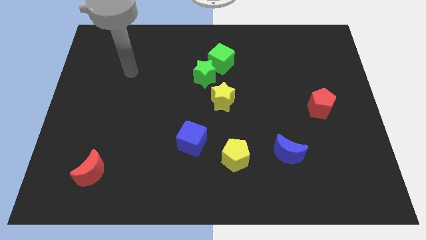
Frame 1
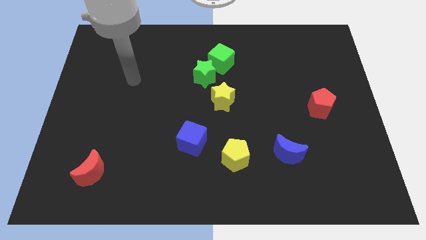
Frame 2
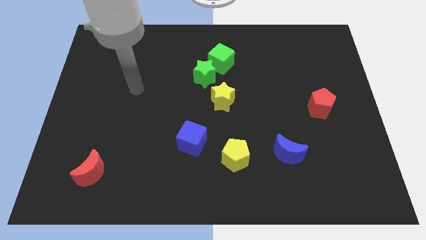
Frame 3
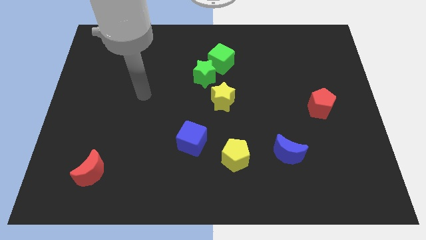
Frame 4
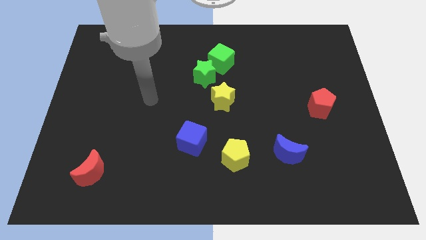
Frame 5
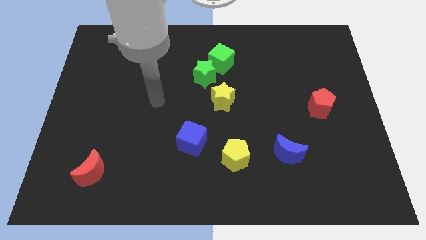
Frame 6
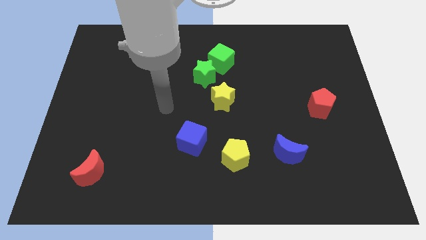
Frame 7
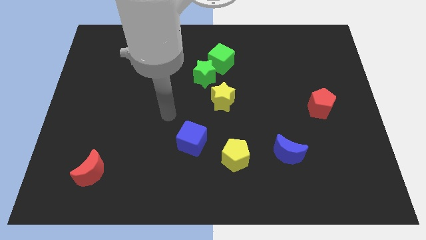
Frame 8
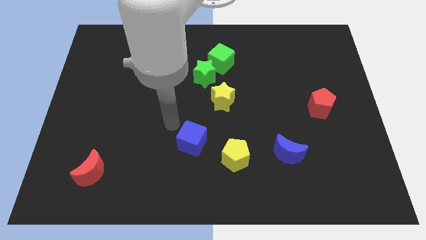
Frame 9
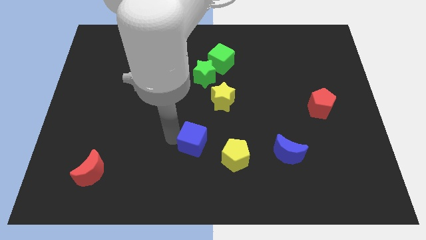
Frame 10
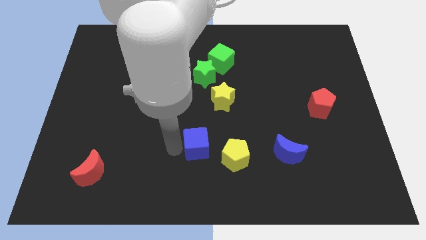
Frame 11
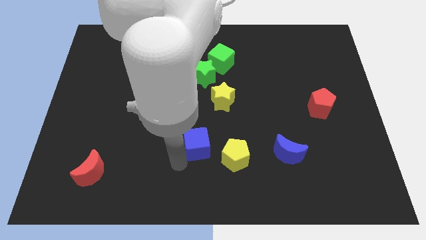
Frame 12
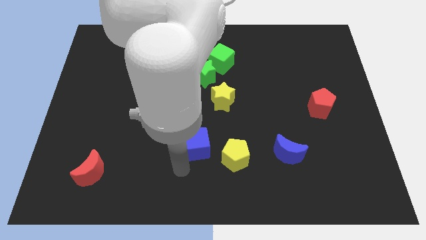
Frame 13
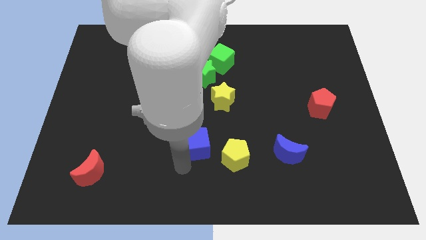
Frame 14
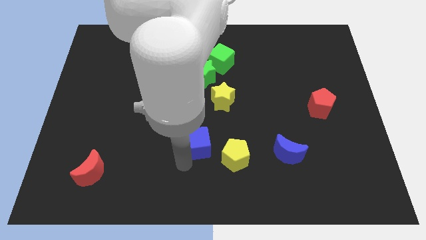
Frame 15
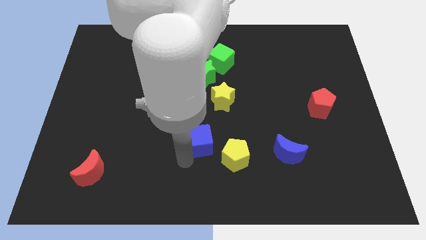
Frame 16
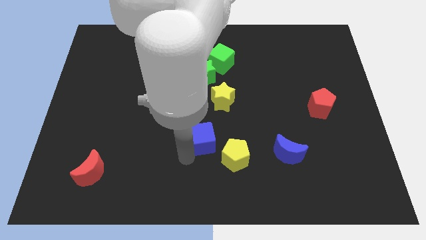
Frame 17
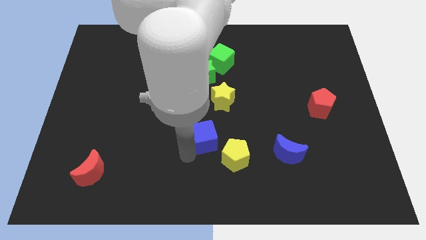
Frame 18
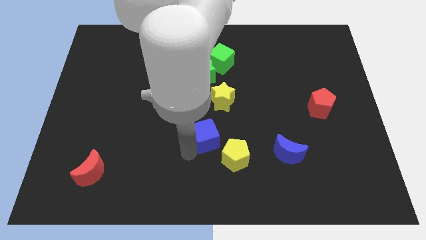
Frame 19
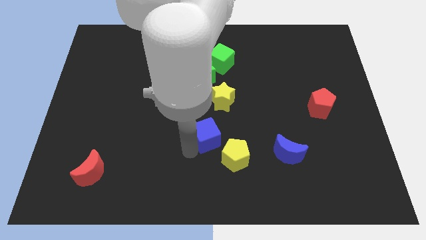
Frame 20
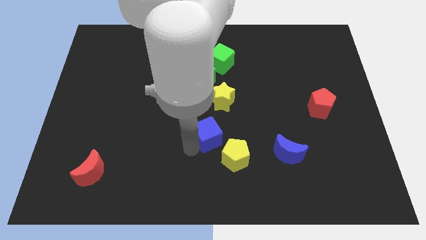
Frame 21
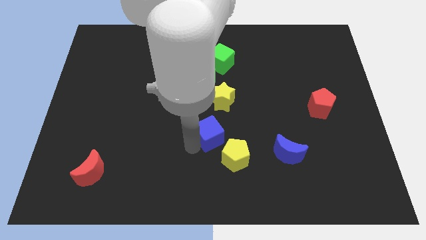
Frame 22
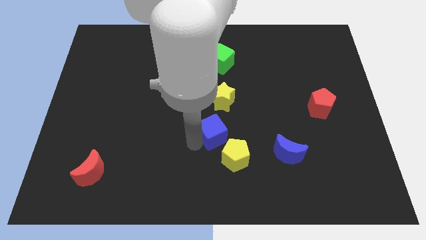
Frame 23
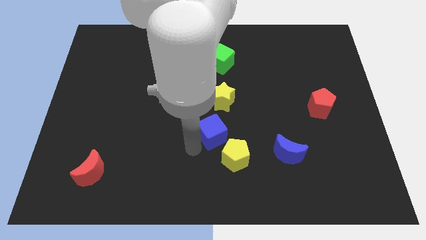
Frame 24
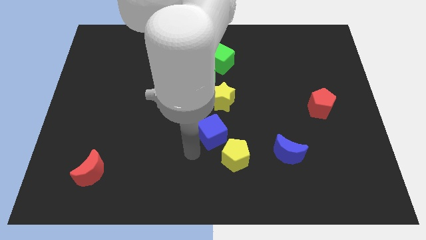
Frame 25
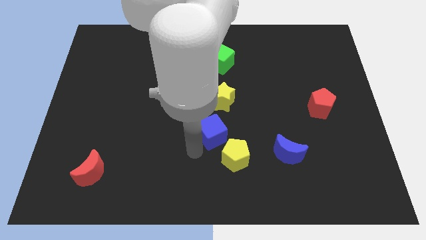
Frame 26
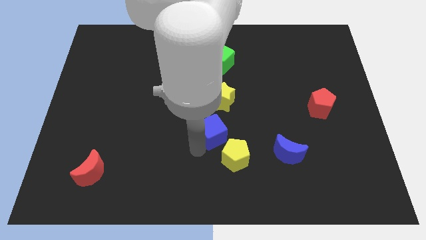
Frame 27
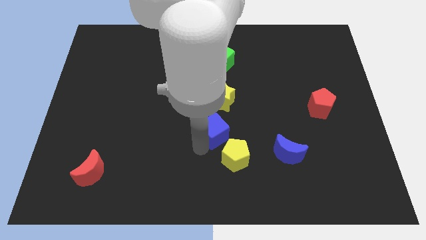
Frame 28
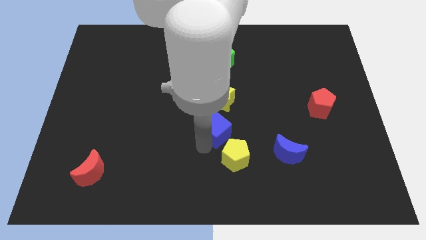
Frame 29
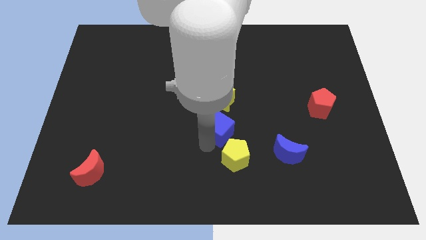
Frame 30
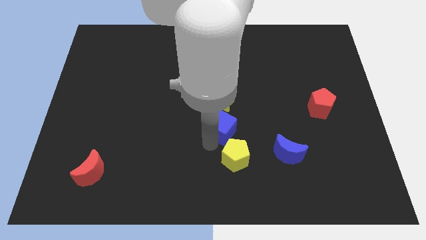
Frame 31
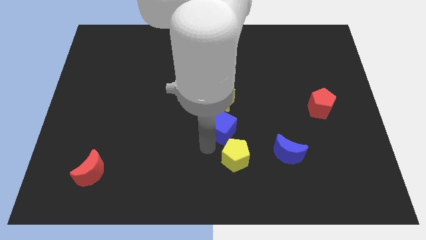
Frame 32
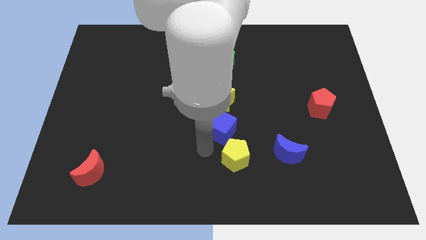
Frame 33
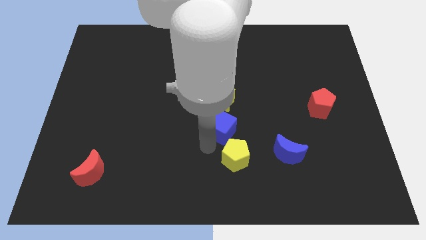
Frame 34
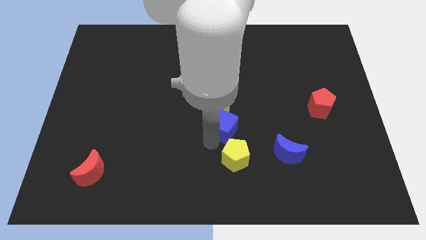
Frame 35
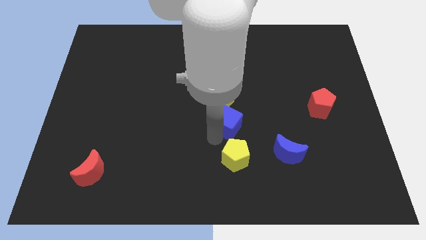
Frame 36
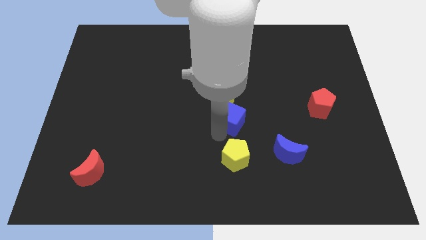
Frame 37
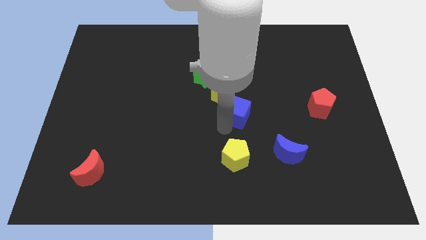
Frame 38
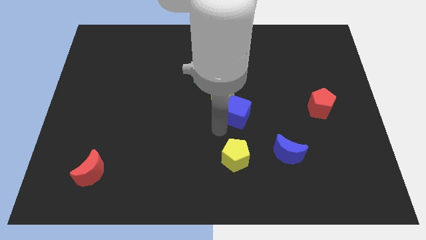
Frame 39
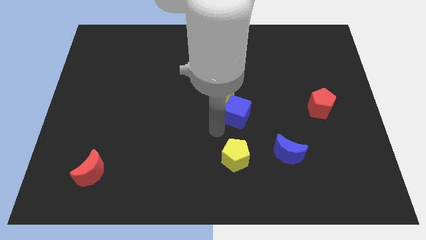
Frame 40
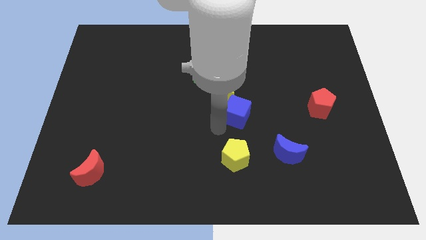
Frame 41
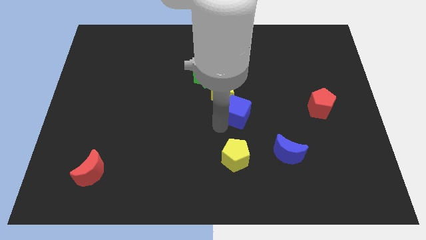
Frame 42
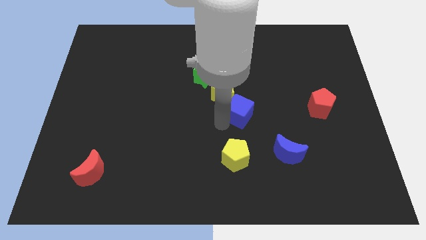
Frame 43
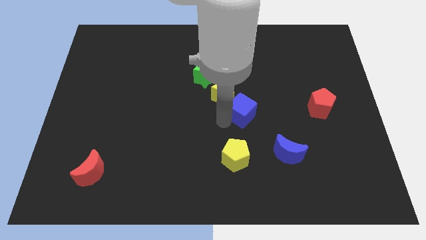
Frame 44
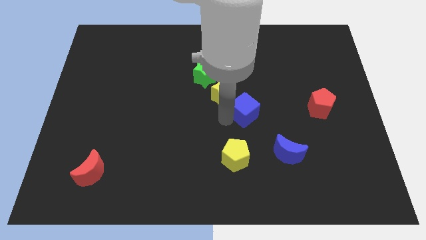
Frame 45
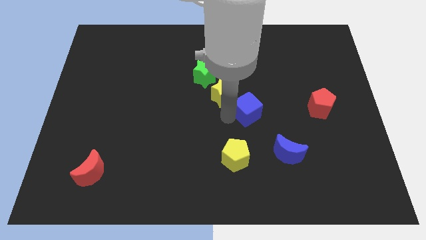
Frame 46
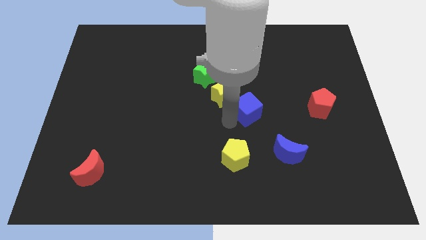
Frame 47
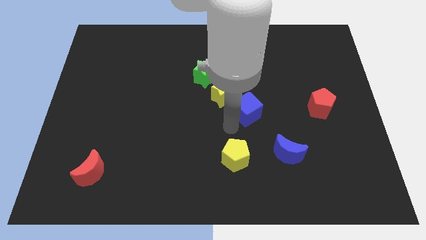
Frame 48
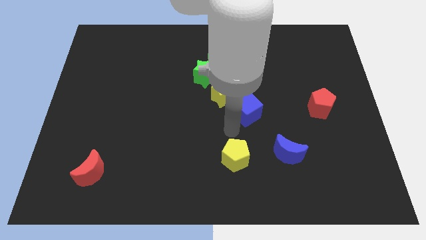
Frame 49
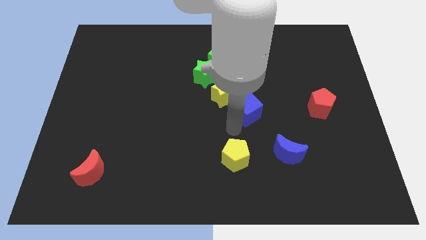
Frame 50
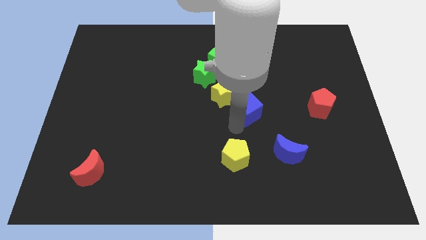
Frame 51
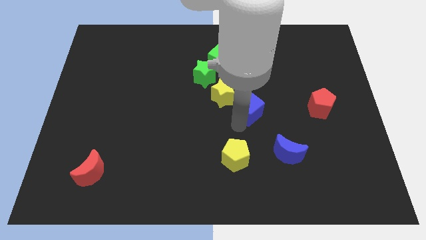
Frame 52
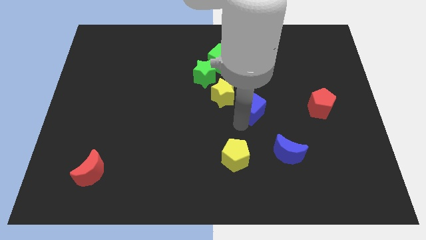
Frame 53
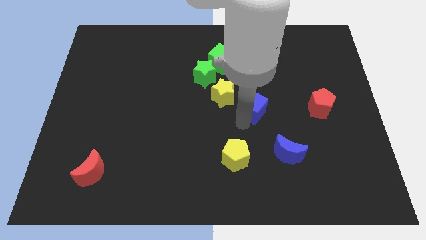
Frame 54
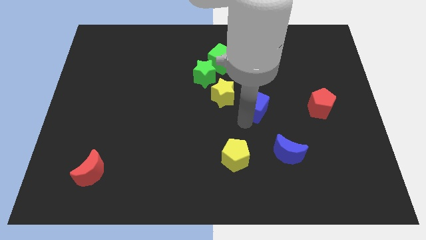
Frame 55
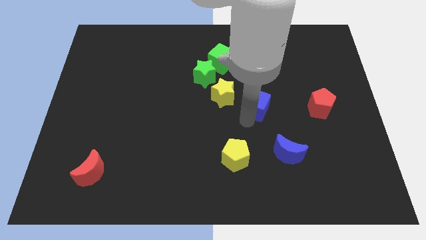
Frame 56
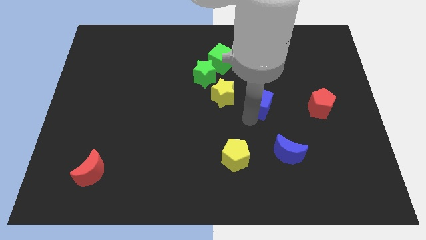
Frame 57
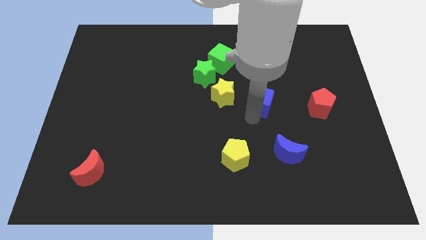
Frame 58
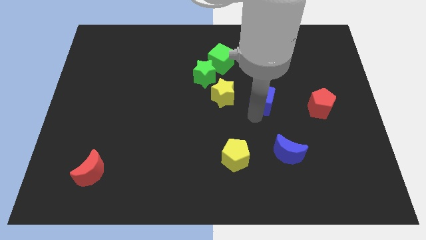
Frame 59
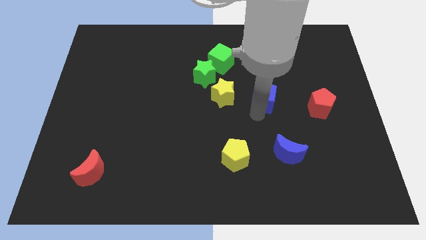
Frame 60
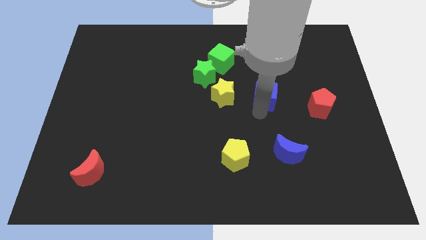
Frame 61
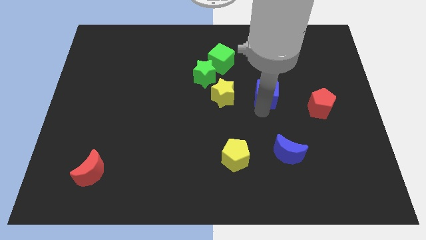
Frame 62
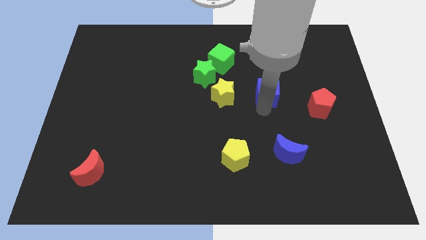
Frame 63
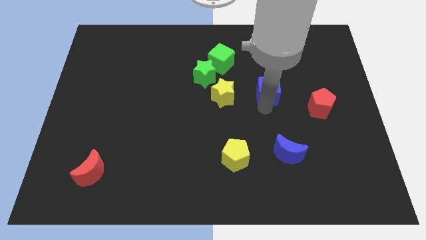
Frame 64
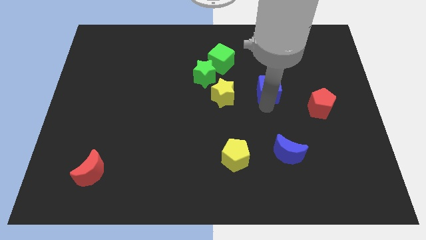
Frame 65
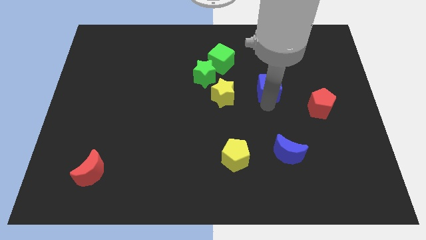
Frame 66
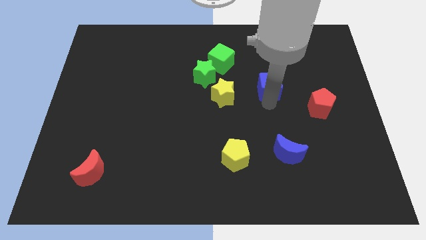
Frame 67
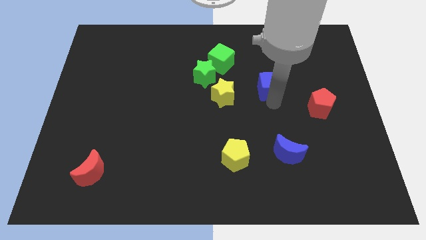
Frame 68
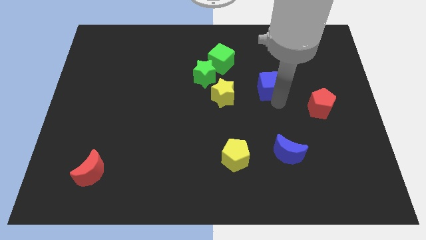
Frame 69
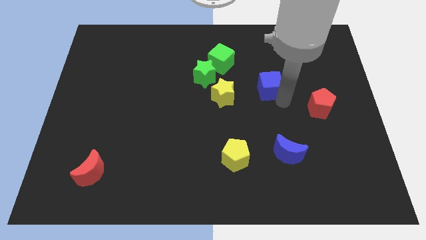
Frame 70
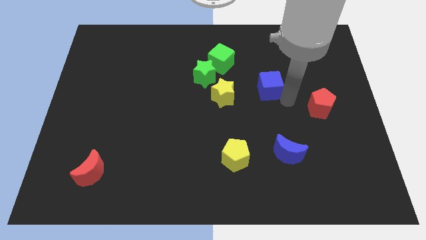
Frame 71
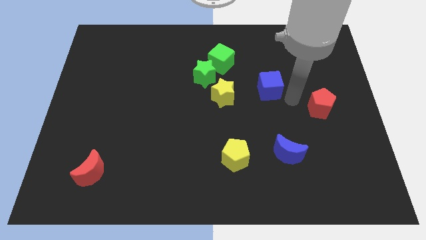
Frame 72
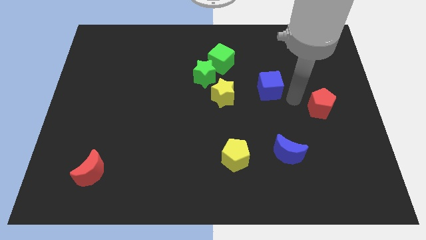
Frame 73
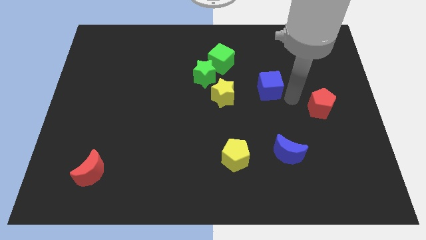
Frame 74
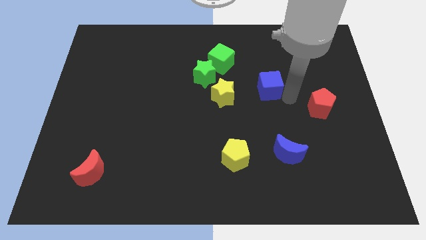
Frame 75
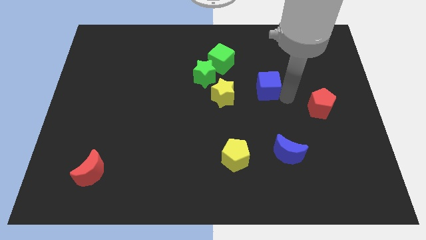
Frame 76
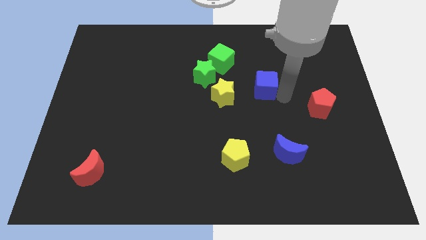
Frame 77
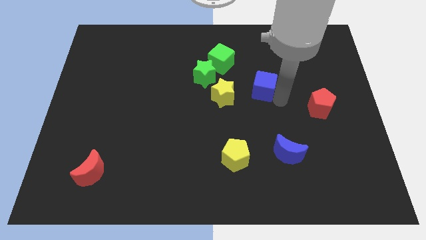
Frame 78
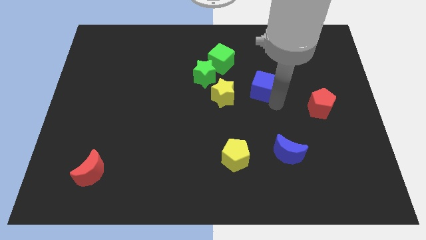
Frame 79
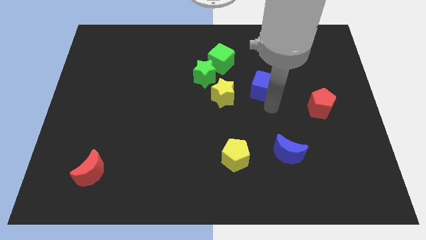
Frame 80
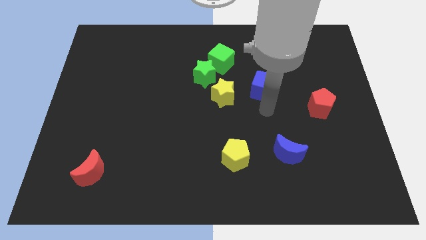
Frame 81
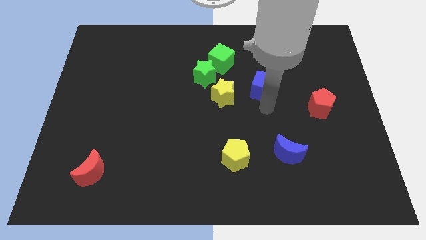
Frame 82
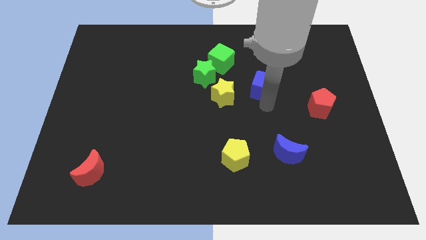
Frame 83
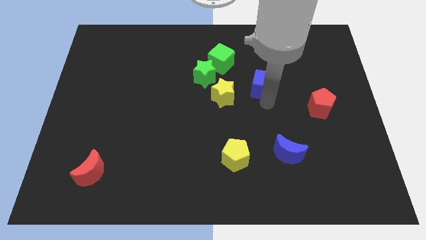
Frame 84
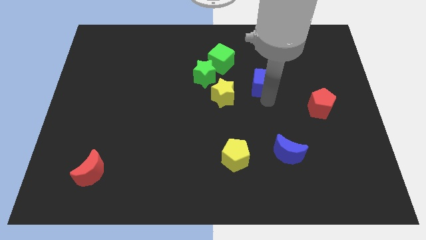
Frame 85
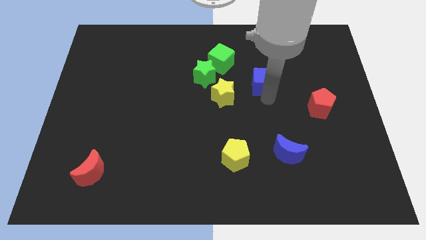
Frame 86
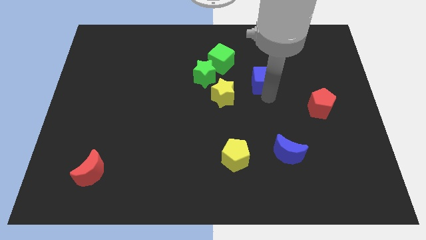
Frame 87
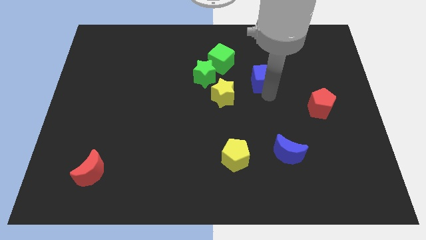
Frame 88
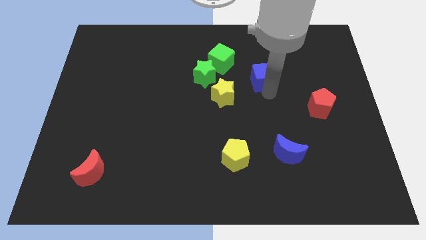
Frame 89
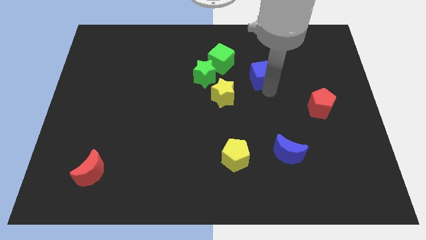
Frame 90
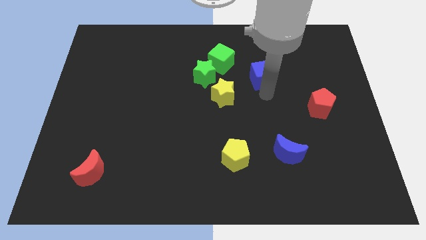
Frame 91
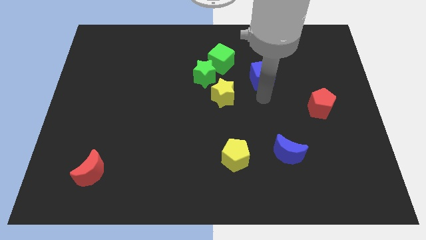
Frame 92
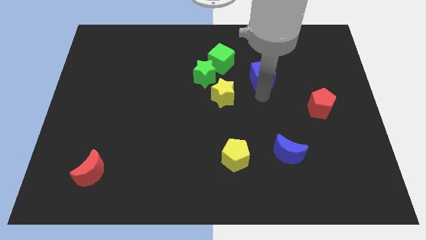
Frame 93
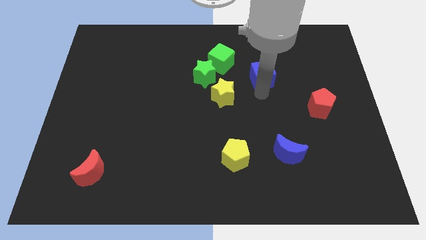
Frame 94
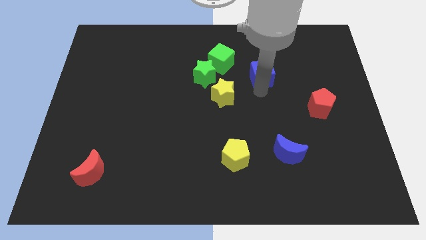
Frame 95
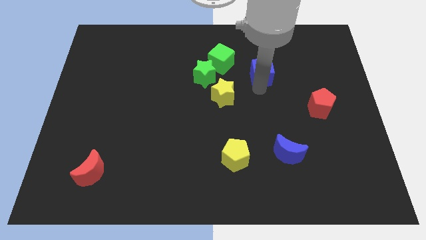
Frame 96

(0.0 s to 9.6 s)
push the blue cube to the right side of the green cube
